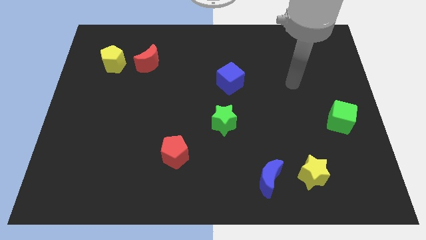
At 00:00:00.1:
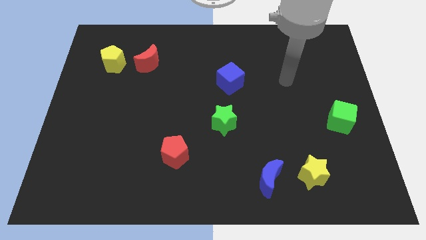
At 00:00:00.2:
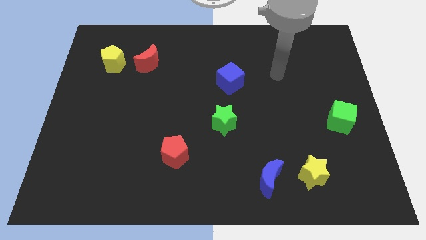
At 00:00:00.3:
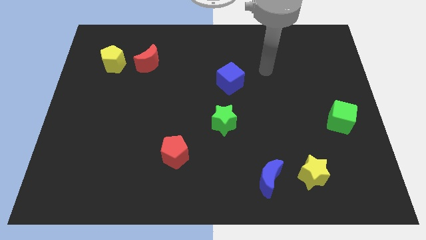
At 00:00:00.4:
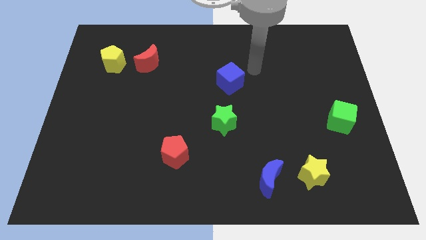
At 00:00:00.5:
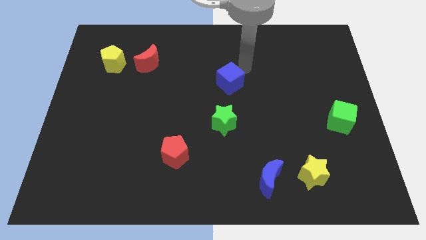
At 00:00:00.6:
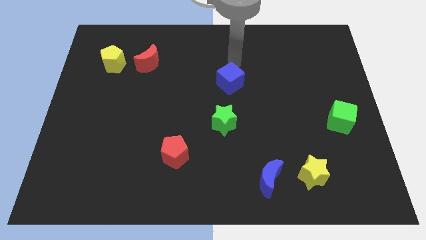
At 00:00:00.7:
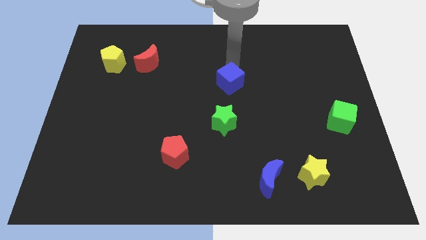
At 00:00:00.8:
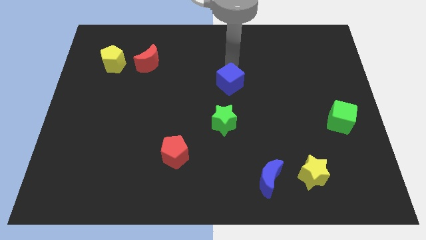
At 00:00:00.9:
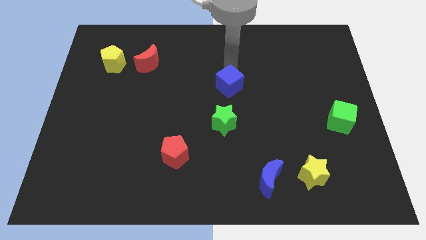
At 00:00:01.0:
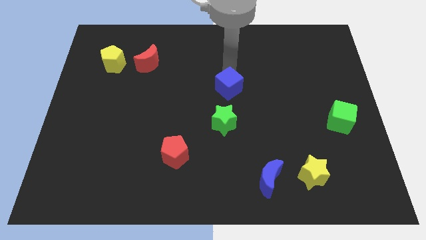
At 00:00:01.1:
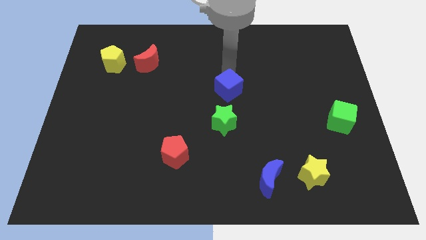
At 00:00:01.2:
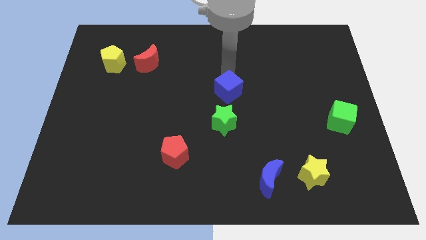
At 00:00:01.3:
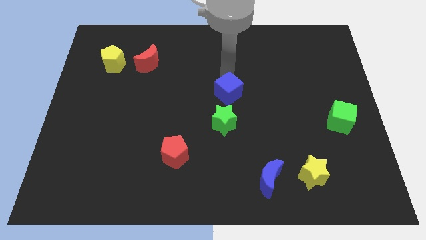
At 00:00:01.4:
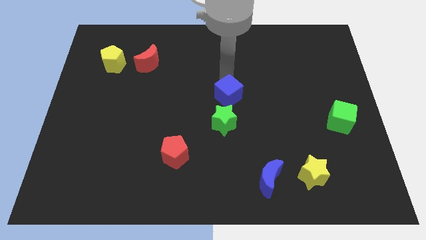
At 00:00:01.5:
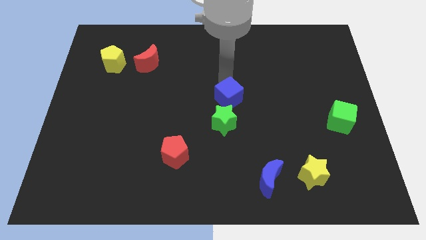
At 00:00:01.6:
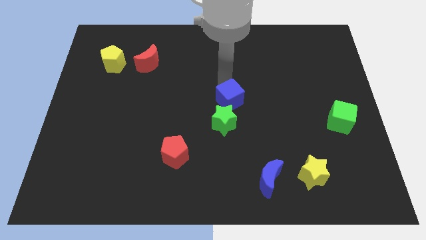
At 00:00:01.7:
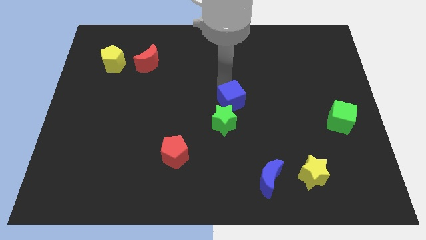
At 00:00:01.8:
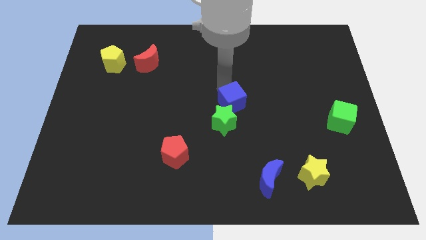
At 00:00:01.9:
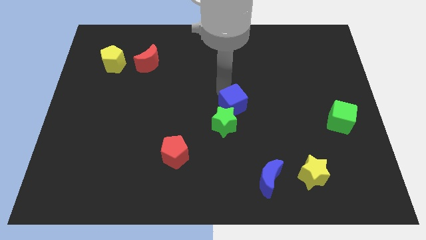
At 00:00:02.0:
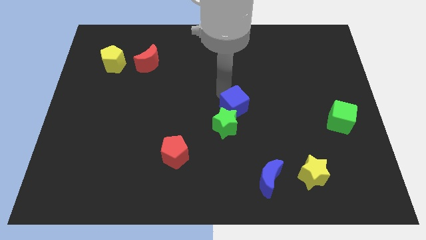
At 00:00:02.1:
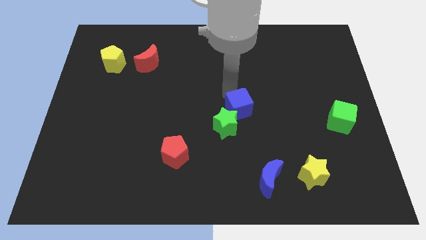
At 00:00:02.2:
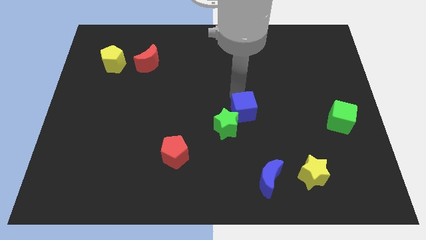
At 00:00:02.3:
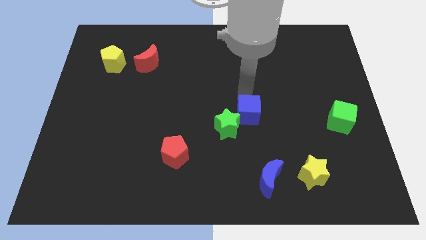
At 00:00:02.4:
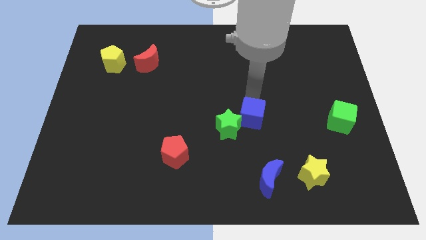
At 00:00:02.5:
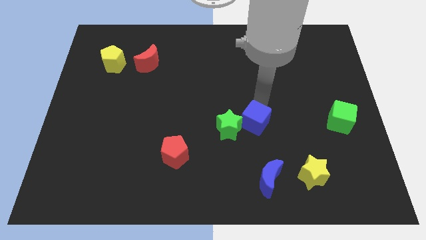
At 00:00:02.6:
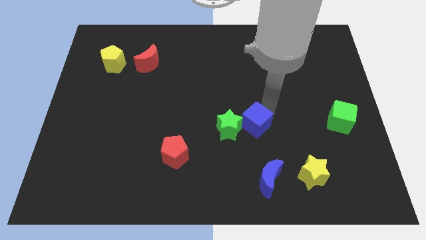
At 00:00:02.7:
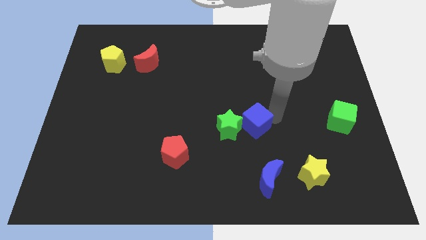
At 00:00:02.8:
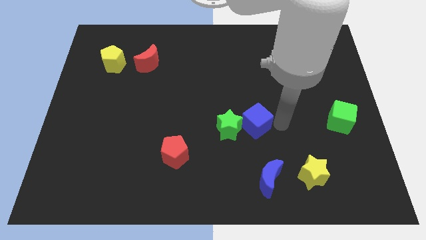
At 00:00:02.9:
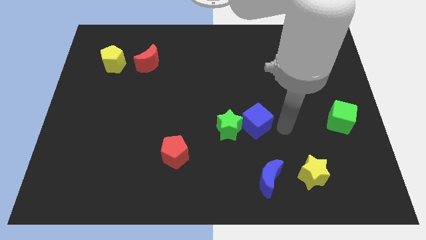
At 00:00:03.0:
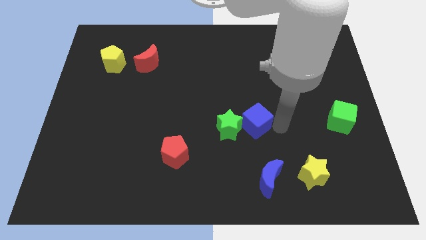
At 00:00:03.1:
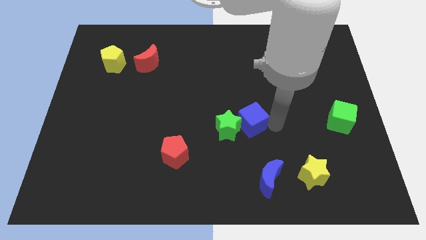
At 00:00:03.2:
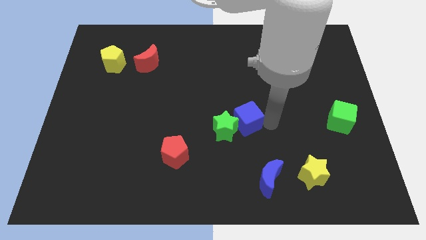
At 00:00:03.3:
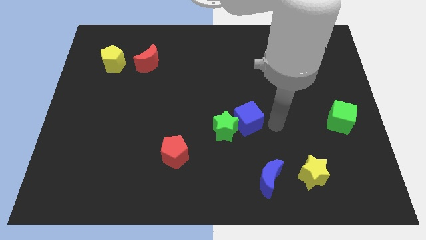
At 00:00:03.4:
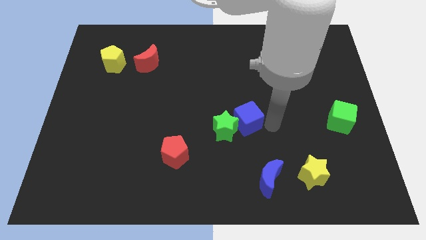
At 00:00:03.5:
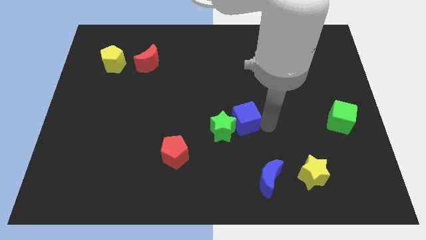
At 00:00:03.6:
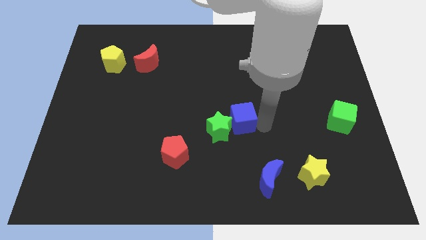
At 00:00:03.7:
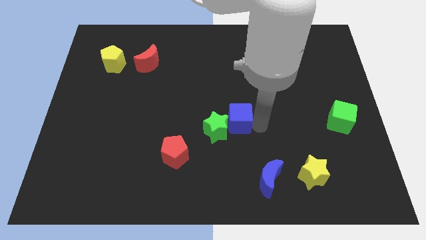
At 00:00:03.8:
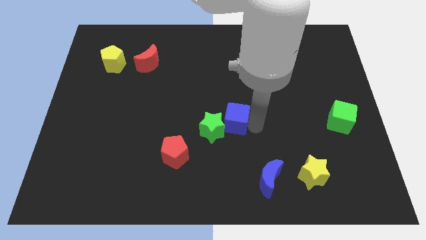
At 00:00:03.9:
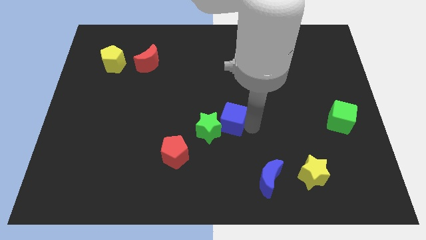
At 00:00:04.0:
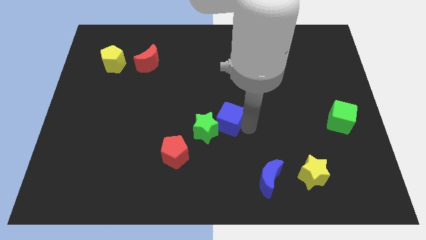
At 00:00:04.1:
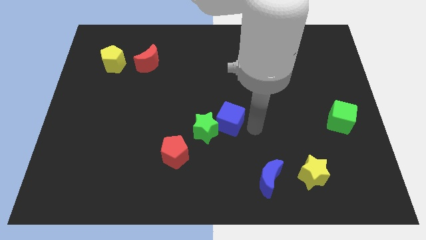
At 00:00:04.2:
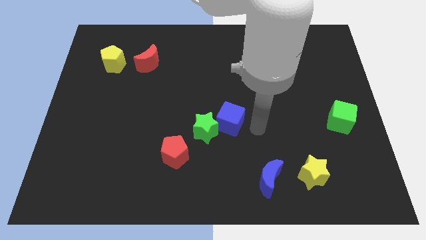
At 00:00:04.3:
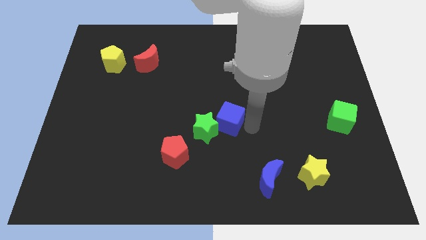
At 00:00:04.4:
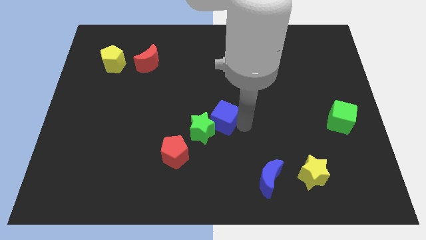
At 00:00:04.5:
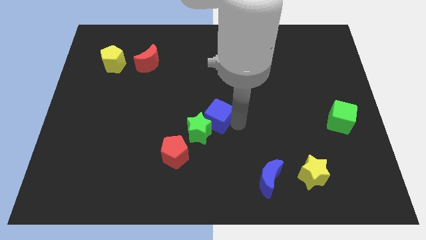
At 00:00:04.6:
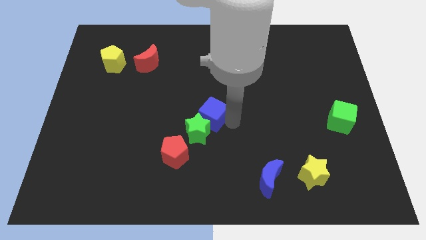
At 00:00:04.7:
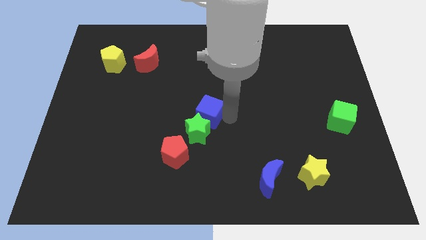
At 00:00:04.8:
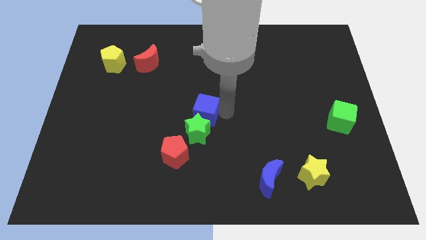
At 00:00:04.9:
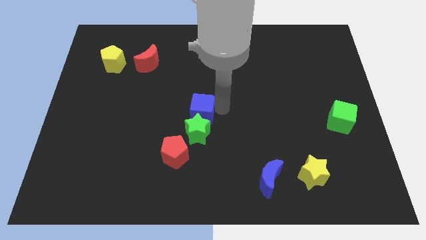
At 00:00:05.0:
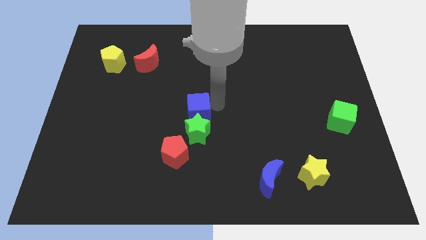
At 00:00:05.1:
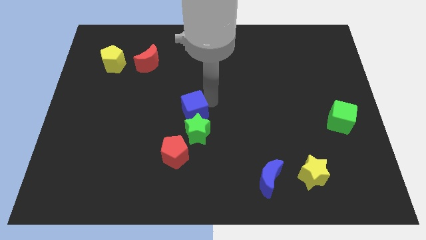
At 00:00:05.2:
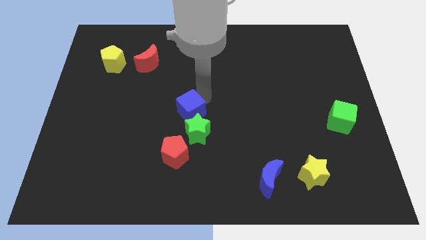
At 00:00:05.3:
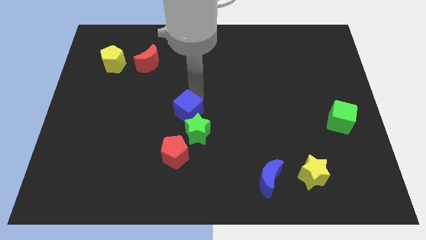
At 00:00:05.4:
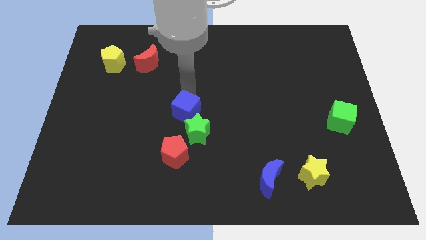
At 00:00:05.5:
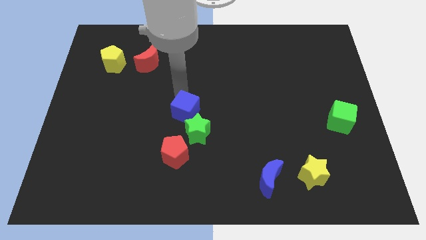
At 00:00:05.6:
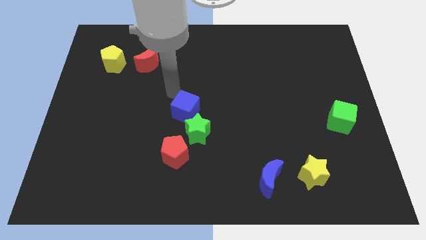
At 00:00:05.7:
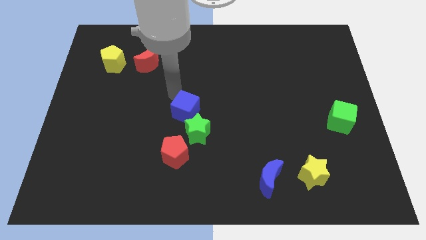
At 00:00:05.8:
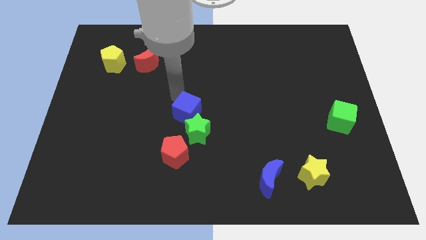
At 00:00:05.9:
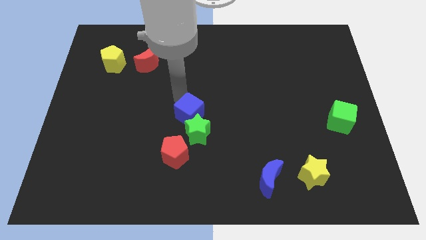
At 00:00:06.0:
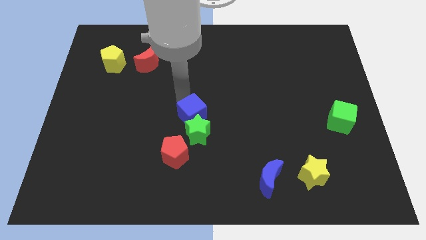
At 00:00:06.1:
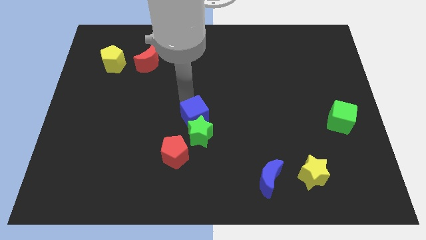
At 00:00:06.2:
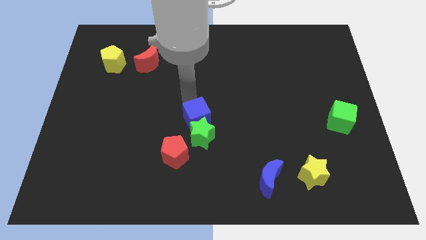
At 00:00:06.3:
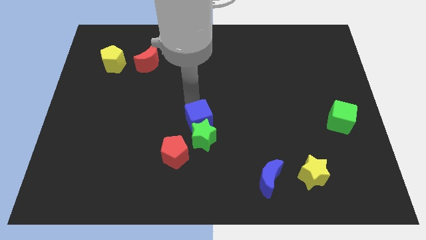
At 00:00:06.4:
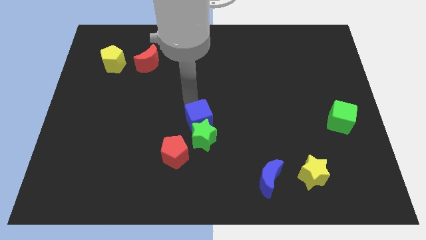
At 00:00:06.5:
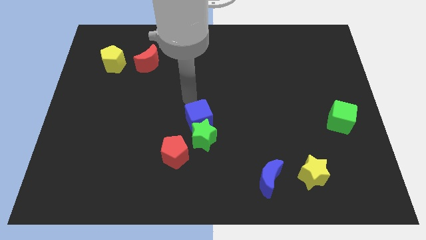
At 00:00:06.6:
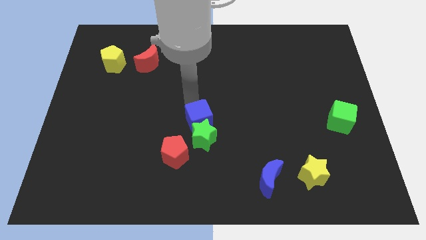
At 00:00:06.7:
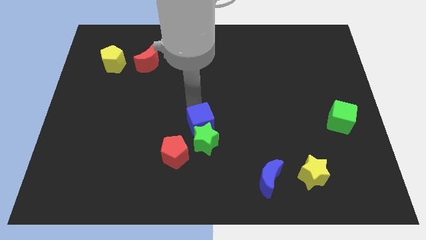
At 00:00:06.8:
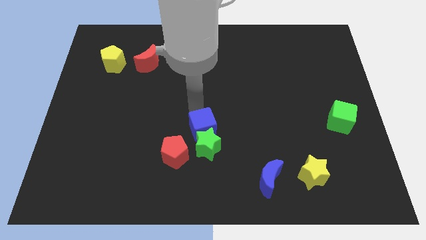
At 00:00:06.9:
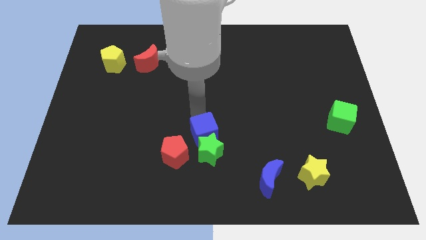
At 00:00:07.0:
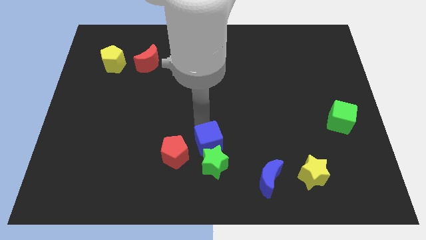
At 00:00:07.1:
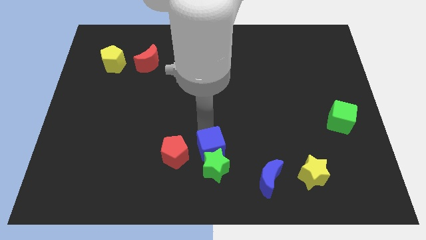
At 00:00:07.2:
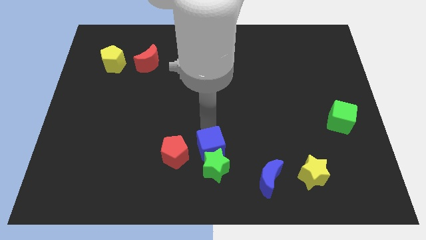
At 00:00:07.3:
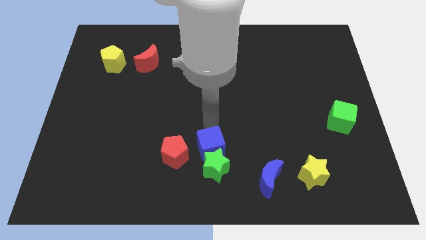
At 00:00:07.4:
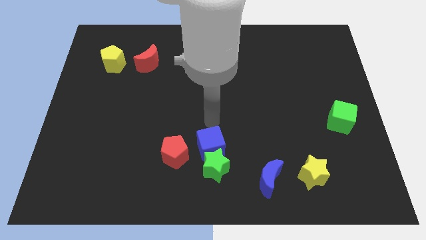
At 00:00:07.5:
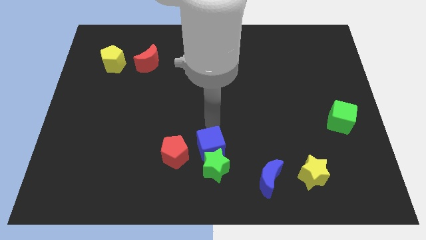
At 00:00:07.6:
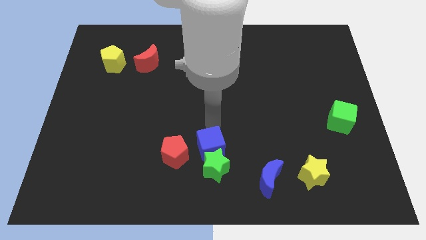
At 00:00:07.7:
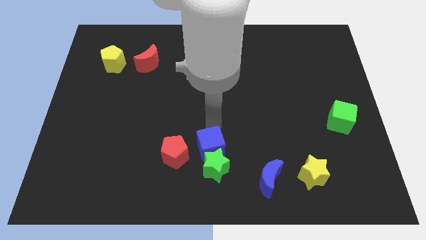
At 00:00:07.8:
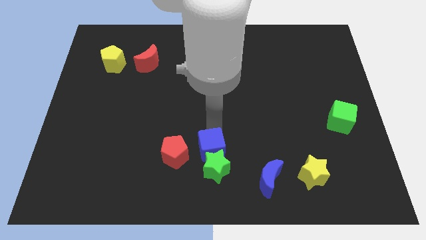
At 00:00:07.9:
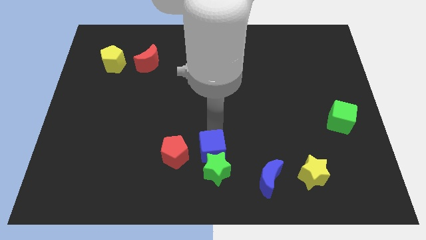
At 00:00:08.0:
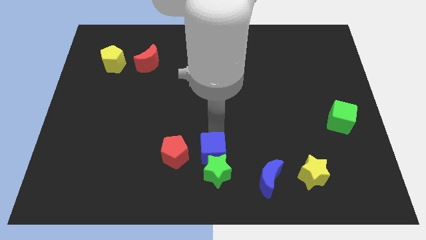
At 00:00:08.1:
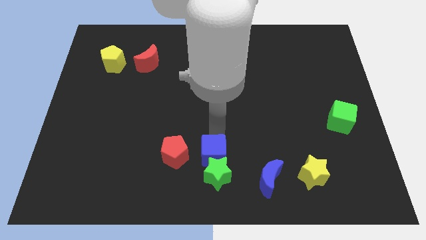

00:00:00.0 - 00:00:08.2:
push the blue cube to the bottom
